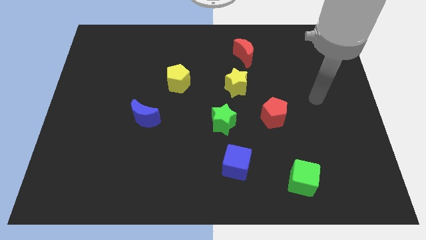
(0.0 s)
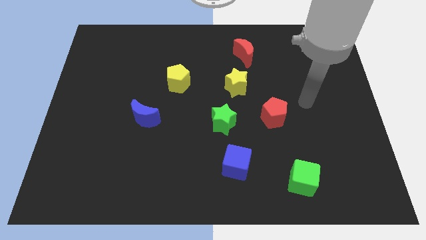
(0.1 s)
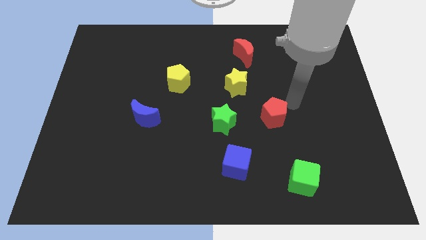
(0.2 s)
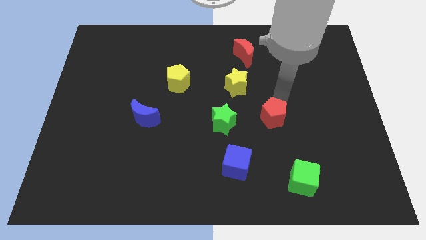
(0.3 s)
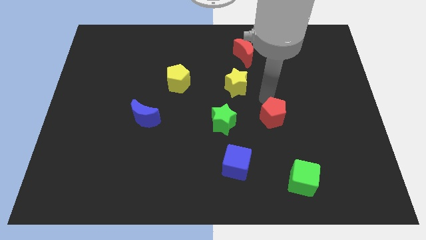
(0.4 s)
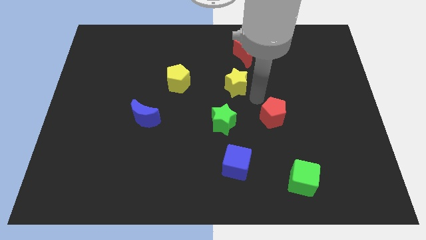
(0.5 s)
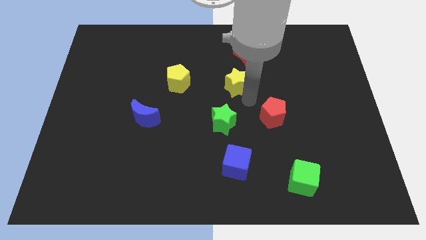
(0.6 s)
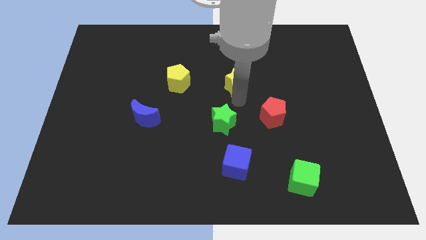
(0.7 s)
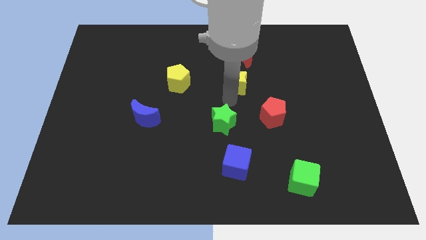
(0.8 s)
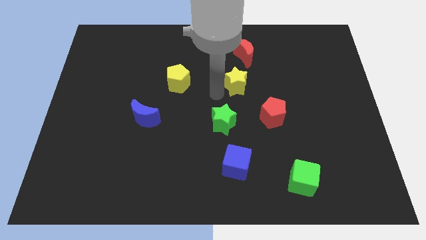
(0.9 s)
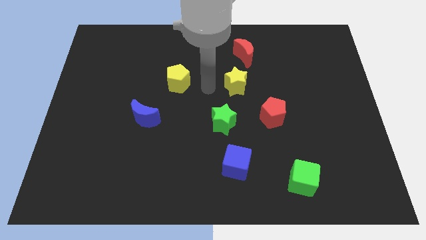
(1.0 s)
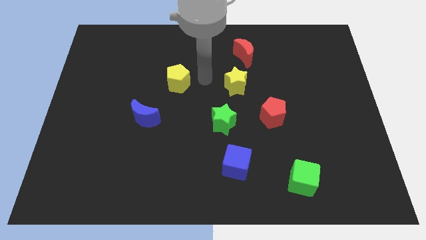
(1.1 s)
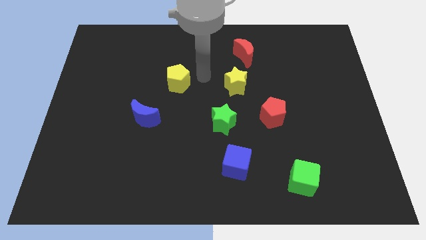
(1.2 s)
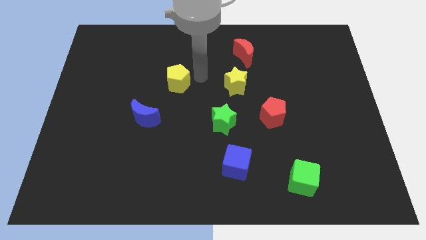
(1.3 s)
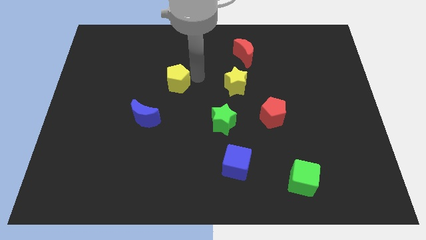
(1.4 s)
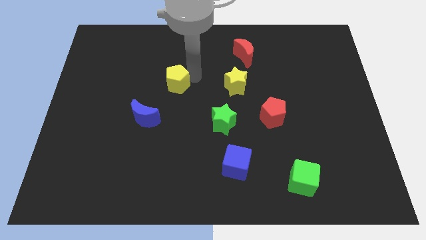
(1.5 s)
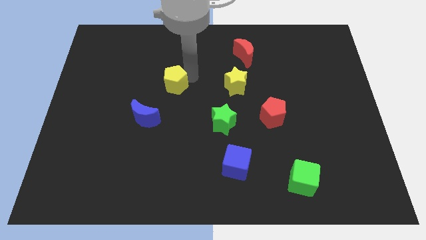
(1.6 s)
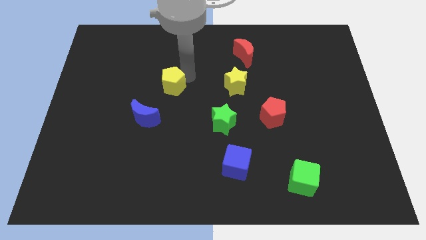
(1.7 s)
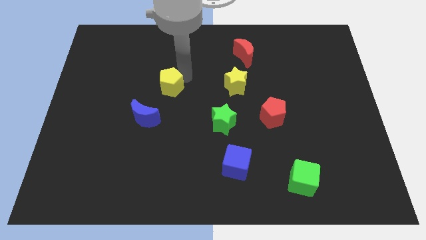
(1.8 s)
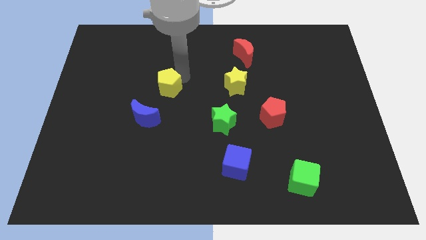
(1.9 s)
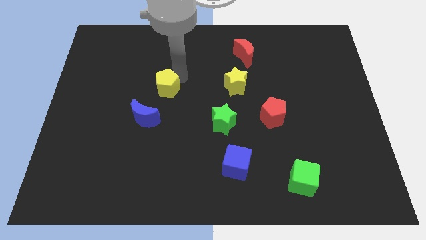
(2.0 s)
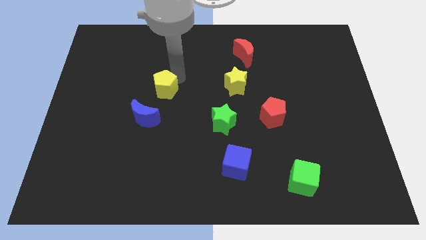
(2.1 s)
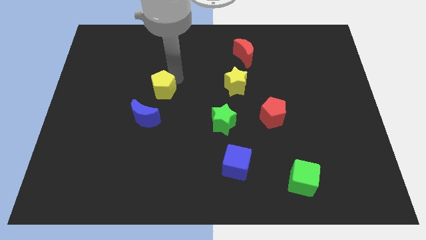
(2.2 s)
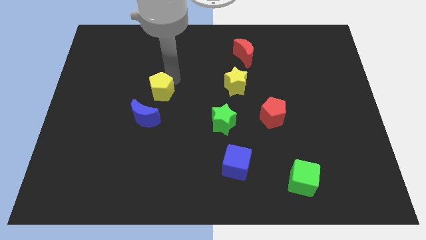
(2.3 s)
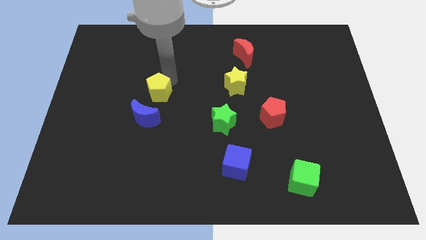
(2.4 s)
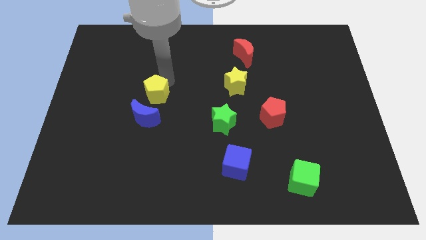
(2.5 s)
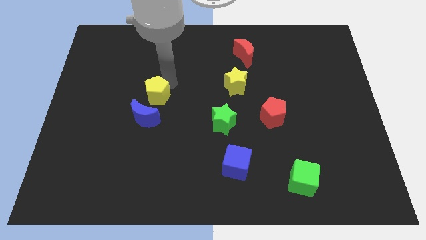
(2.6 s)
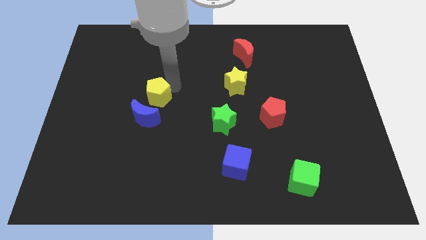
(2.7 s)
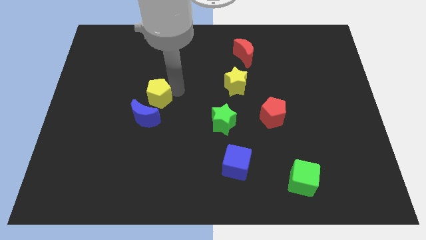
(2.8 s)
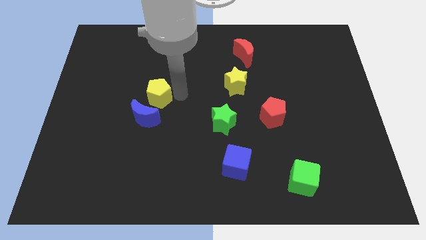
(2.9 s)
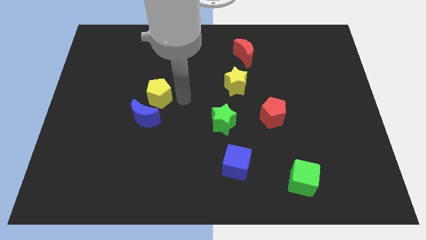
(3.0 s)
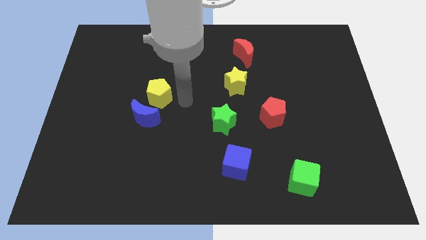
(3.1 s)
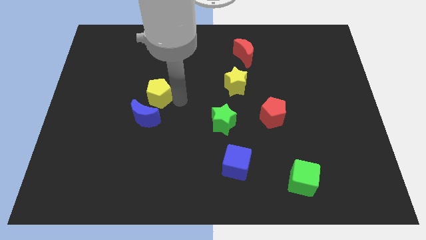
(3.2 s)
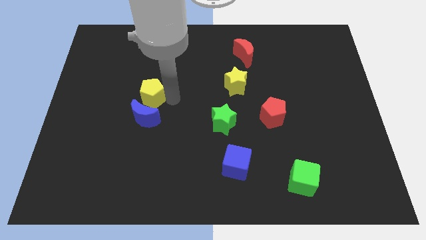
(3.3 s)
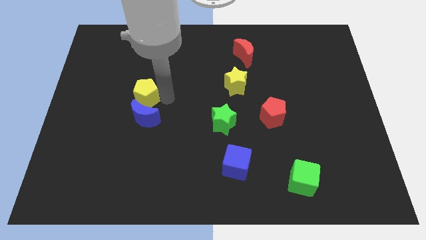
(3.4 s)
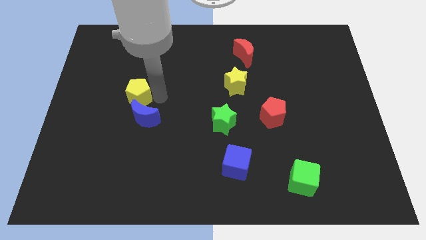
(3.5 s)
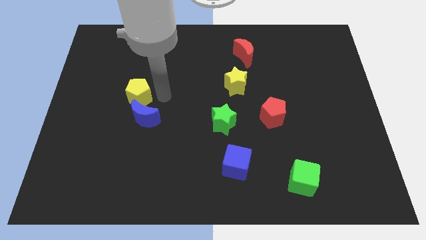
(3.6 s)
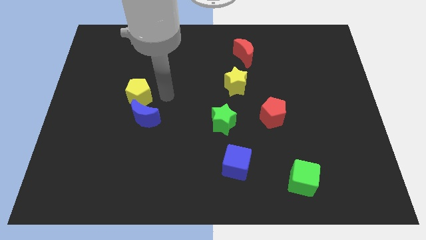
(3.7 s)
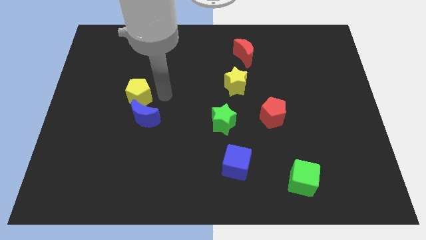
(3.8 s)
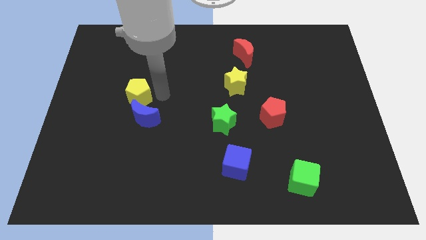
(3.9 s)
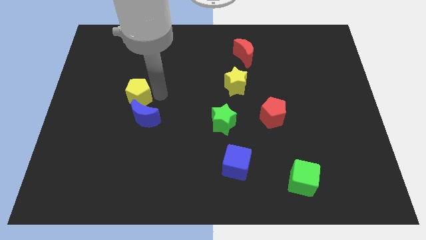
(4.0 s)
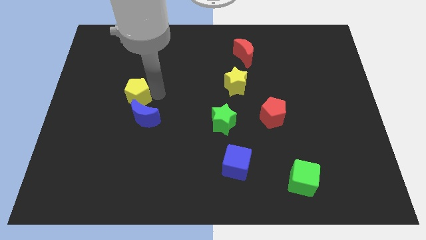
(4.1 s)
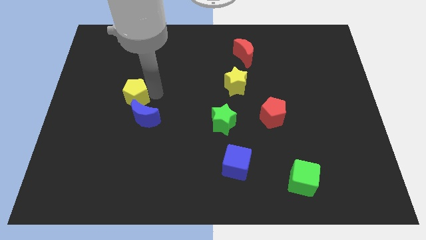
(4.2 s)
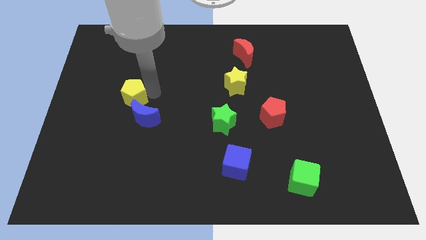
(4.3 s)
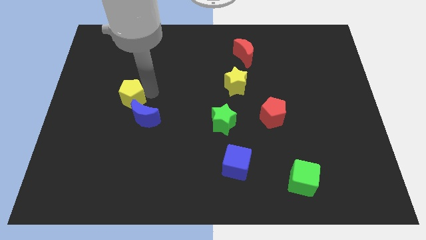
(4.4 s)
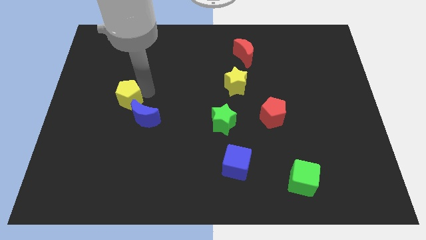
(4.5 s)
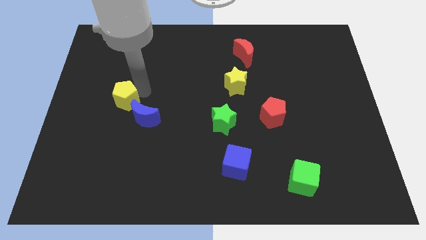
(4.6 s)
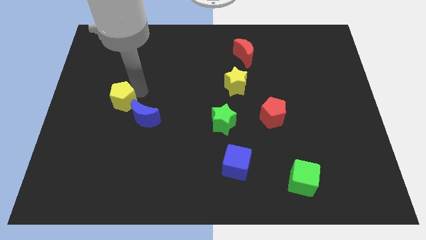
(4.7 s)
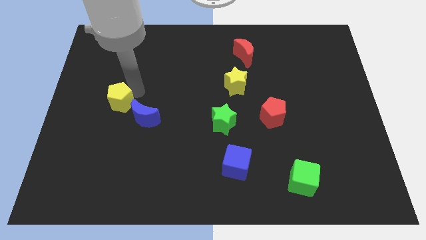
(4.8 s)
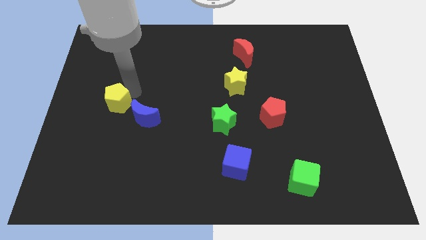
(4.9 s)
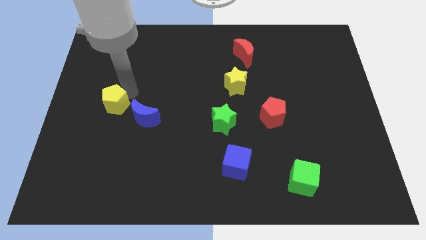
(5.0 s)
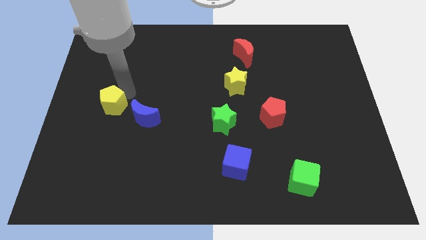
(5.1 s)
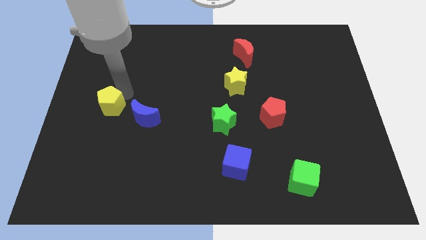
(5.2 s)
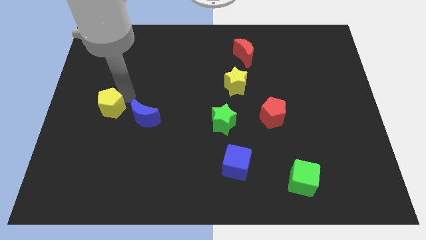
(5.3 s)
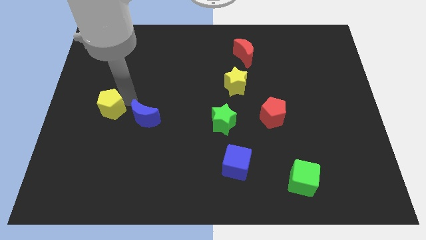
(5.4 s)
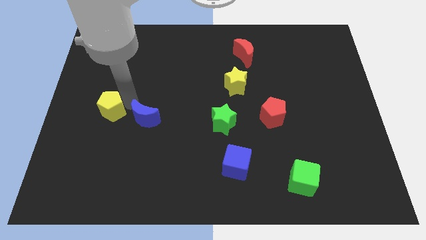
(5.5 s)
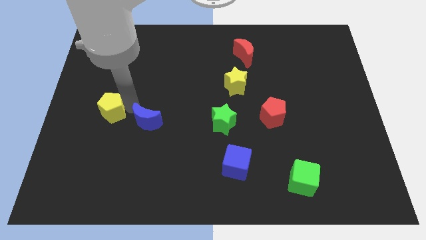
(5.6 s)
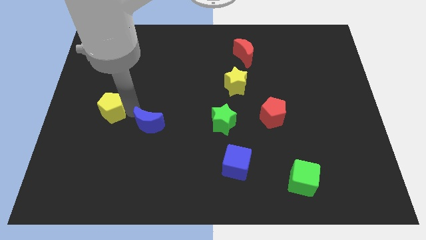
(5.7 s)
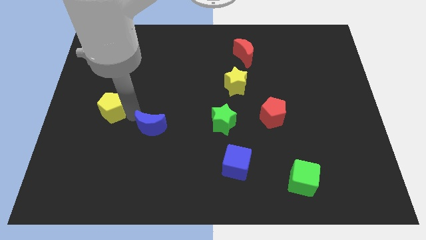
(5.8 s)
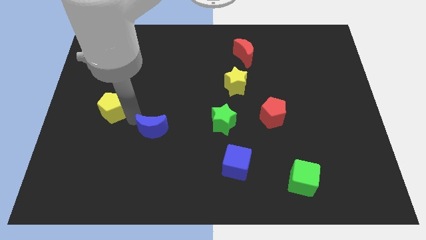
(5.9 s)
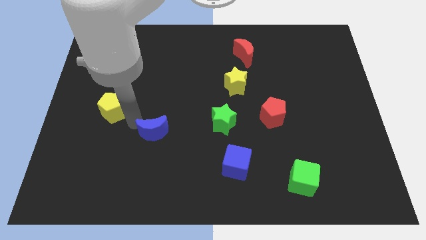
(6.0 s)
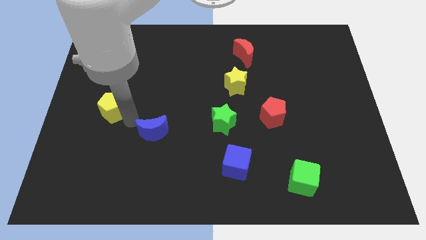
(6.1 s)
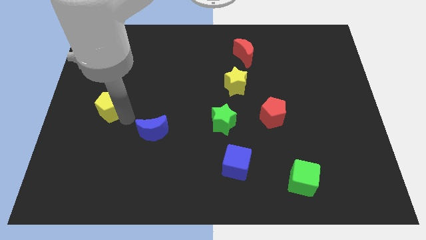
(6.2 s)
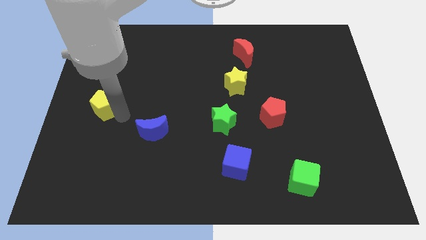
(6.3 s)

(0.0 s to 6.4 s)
slide the yellow pentagon to the left side of the board
